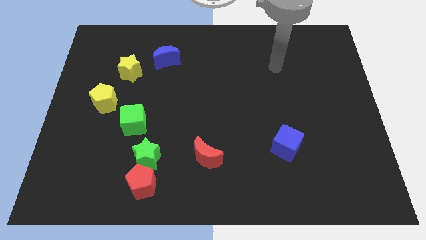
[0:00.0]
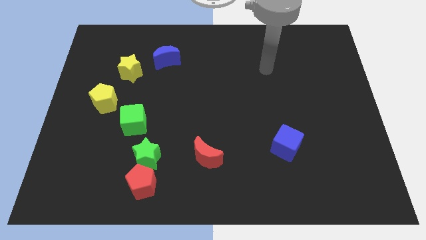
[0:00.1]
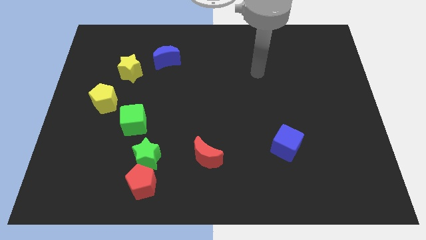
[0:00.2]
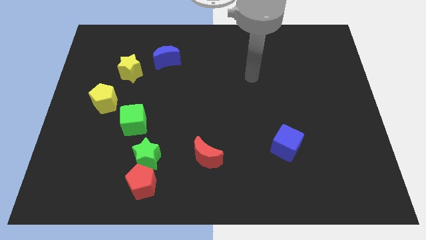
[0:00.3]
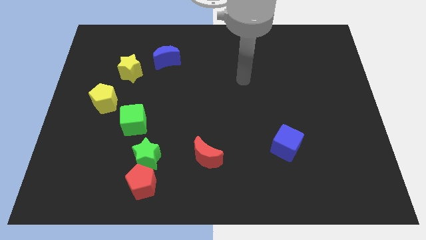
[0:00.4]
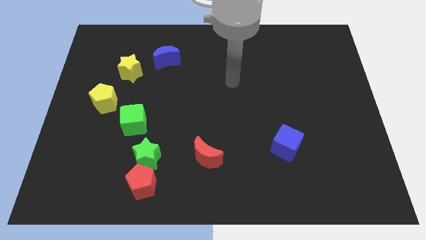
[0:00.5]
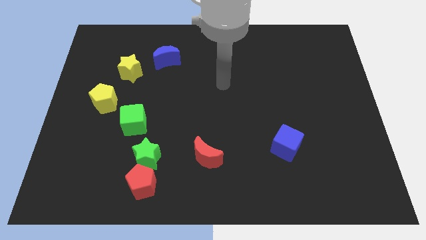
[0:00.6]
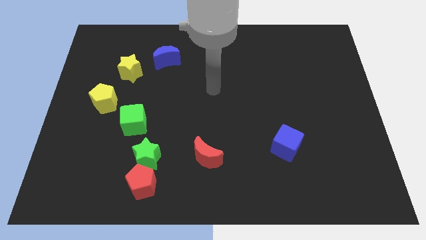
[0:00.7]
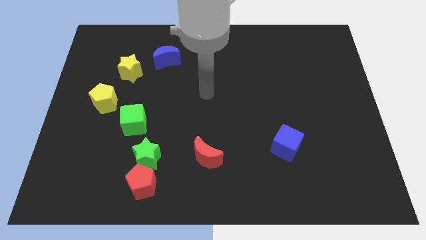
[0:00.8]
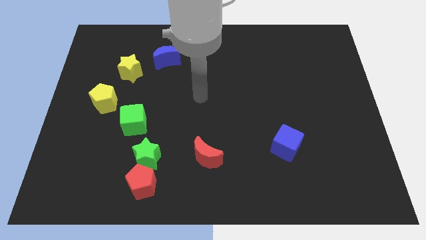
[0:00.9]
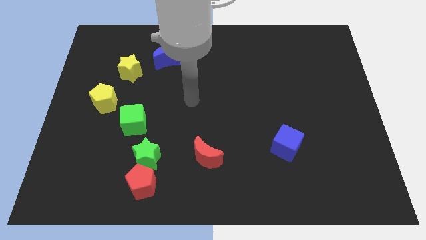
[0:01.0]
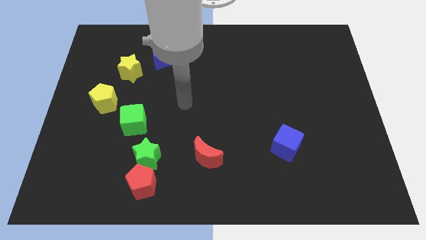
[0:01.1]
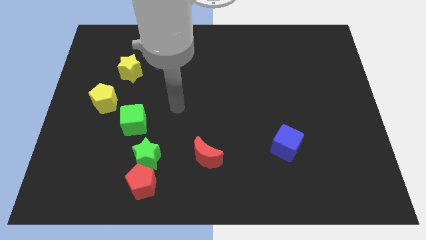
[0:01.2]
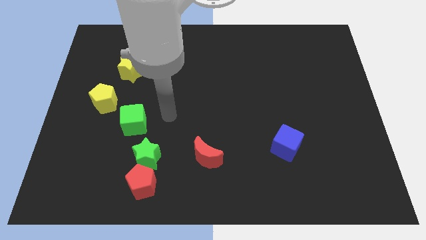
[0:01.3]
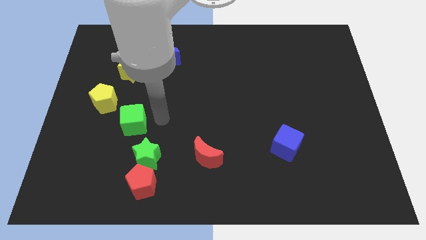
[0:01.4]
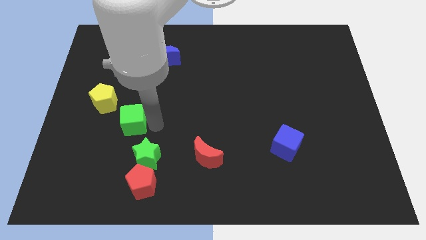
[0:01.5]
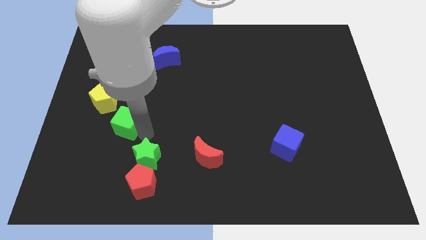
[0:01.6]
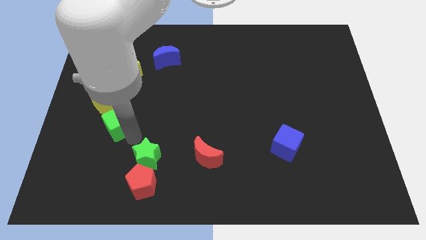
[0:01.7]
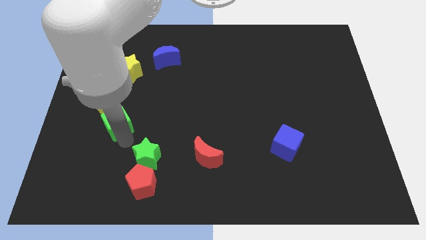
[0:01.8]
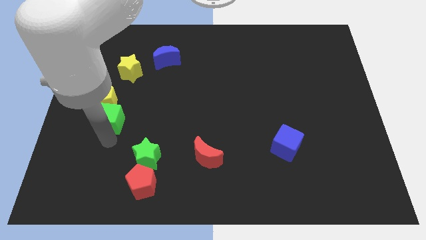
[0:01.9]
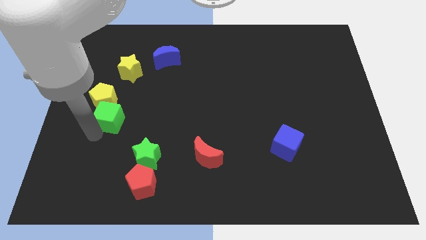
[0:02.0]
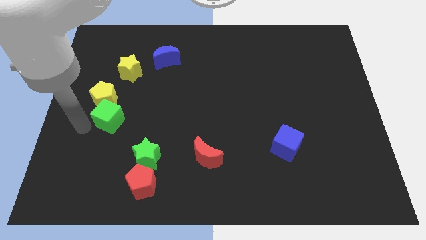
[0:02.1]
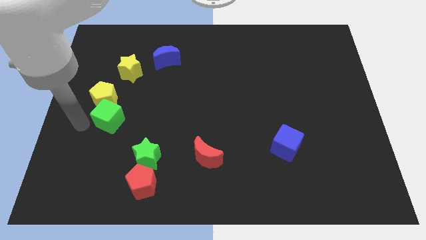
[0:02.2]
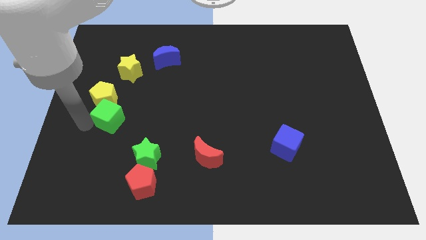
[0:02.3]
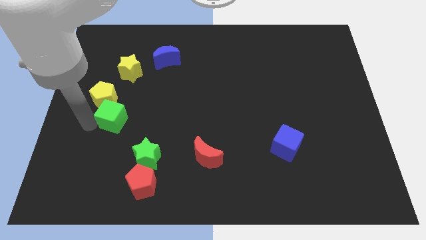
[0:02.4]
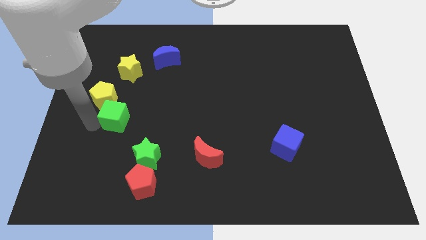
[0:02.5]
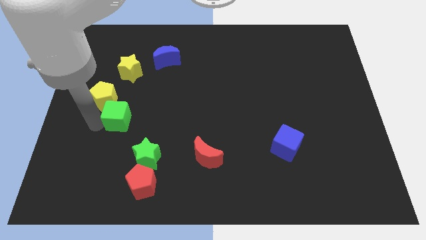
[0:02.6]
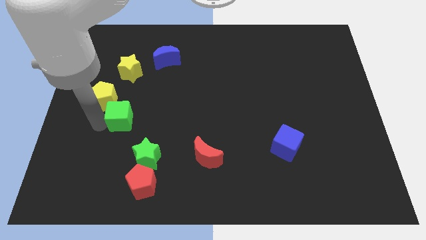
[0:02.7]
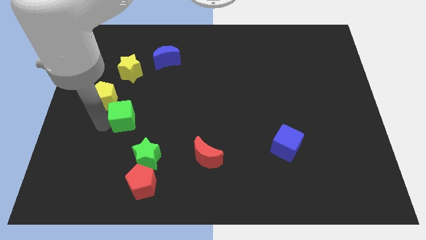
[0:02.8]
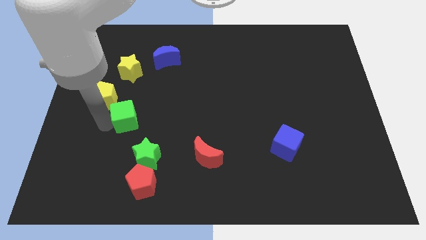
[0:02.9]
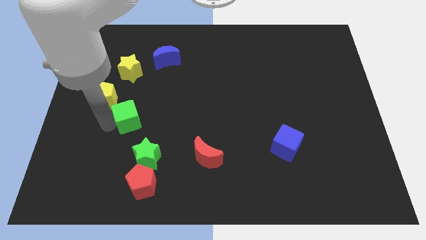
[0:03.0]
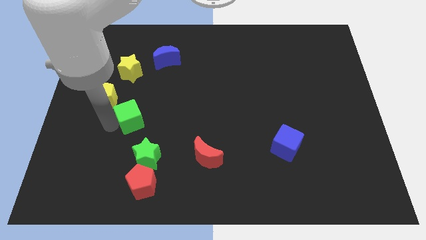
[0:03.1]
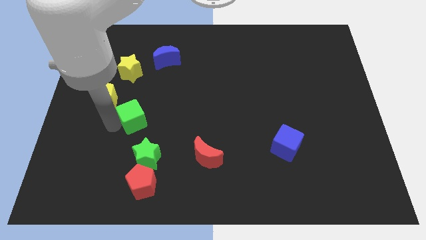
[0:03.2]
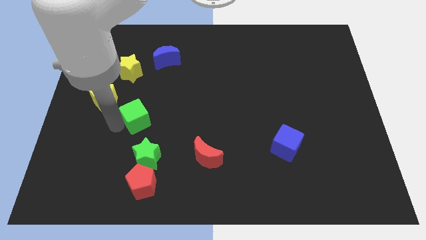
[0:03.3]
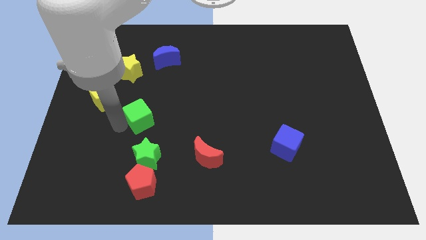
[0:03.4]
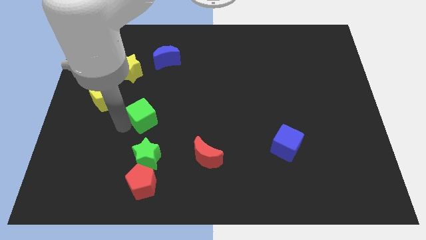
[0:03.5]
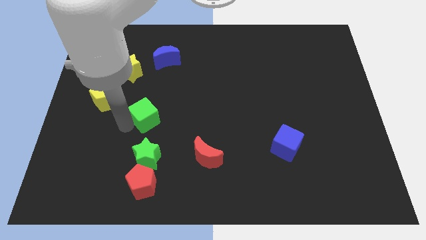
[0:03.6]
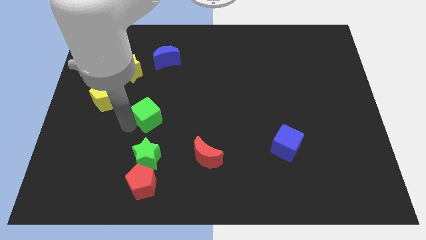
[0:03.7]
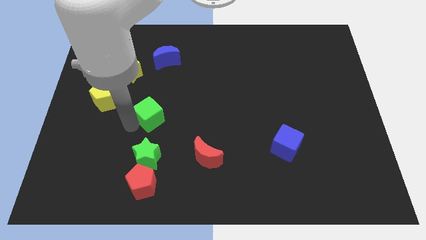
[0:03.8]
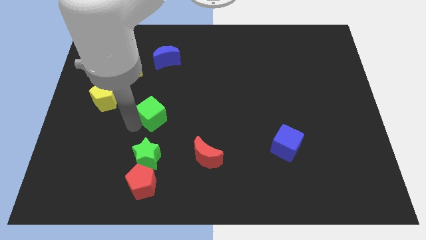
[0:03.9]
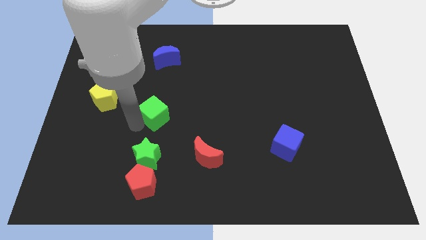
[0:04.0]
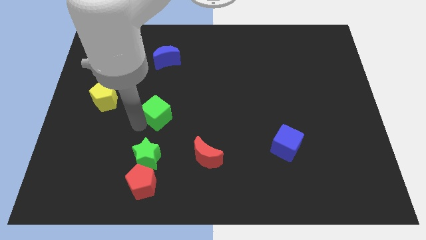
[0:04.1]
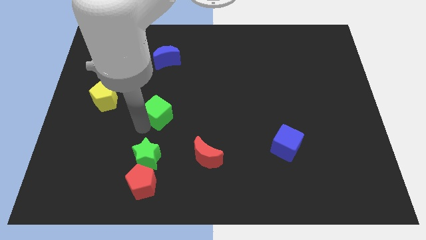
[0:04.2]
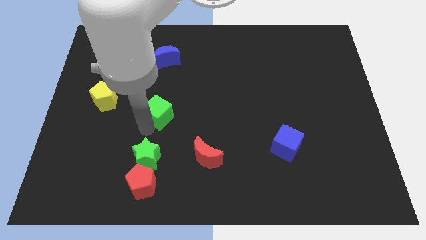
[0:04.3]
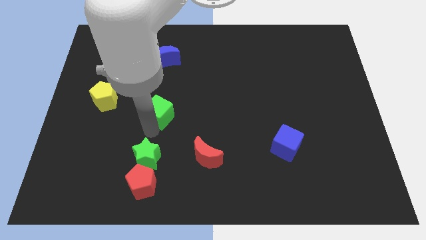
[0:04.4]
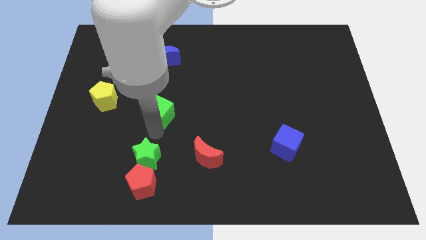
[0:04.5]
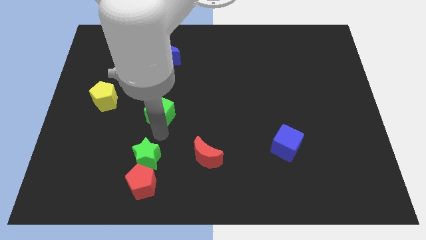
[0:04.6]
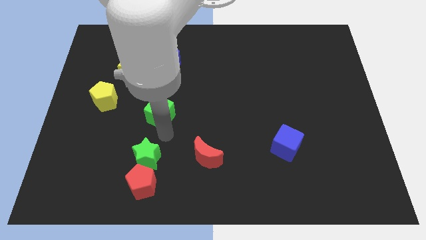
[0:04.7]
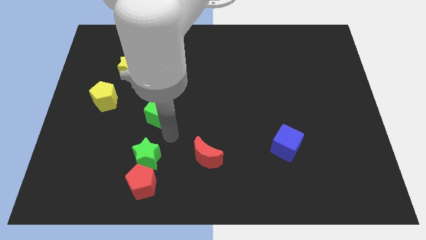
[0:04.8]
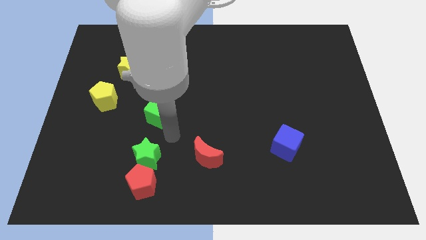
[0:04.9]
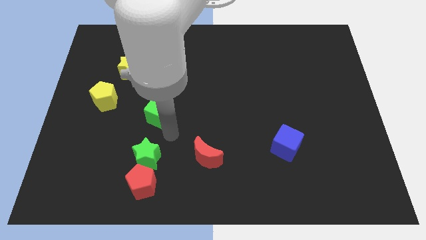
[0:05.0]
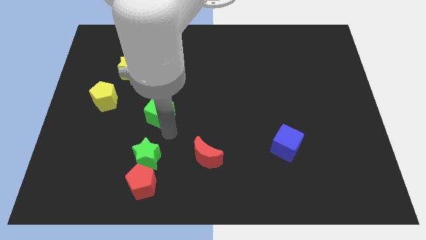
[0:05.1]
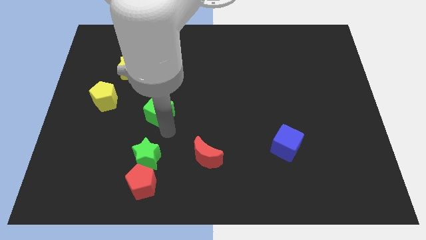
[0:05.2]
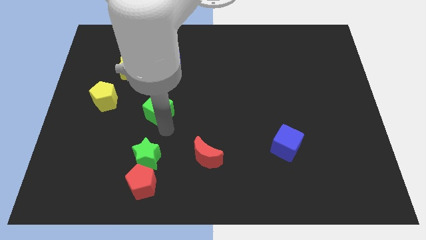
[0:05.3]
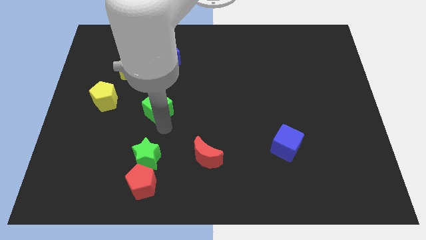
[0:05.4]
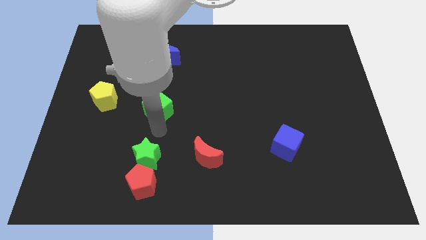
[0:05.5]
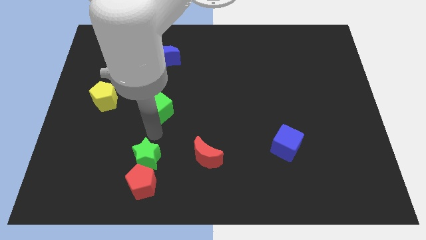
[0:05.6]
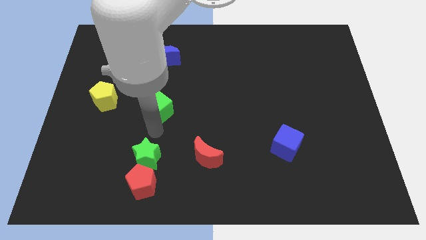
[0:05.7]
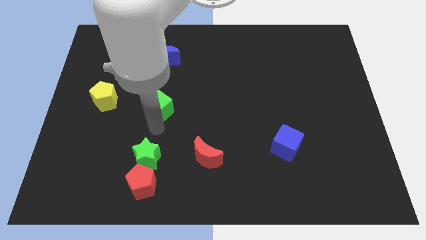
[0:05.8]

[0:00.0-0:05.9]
slide the green cube to the bottom of the blue moon
